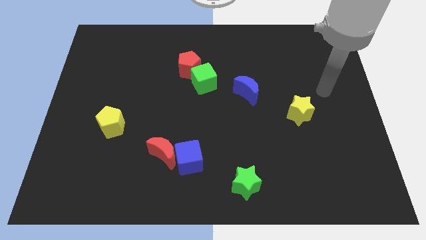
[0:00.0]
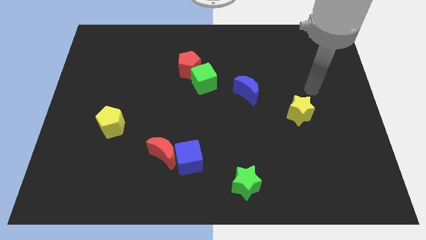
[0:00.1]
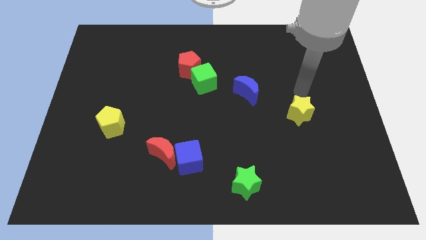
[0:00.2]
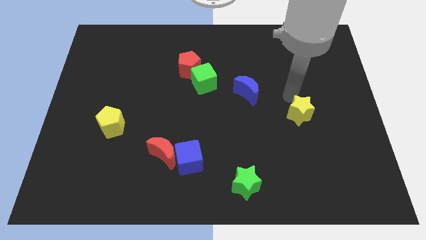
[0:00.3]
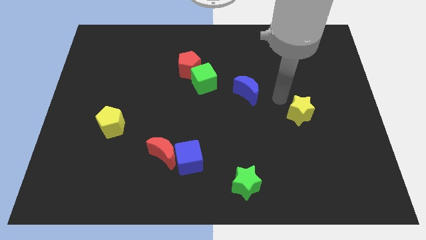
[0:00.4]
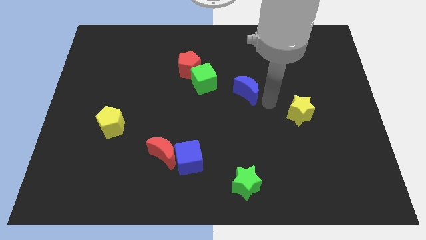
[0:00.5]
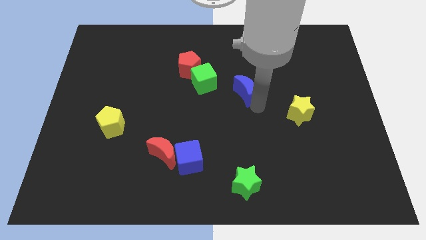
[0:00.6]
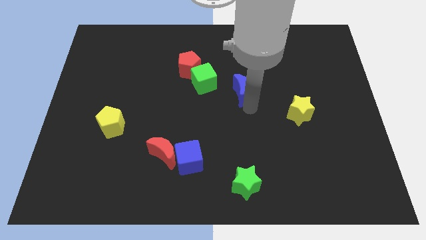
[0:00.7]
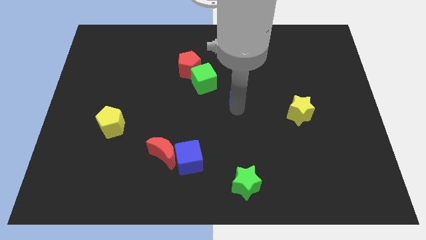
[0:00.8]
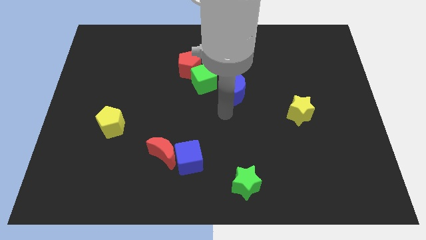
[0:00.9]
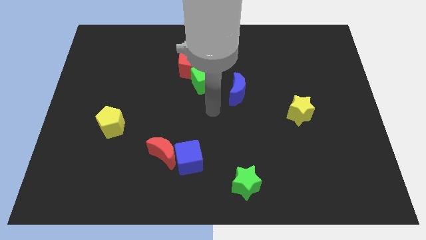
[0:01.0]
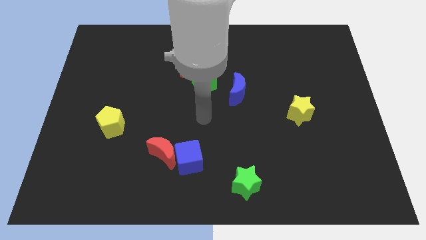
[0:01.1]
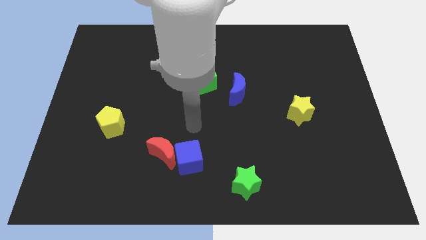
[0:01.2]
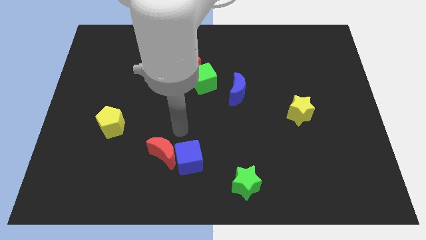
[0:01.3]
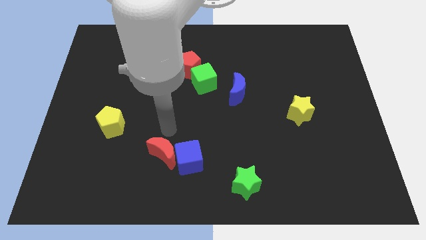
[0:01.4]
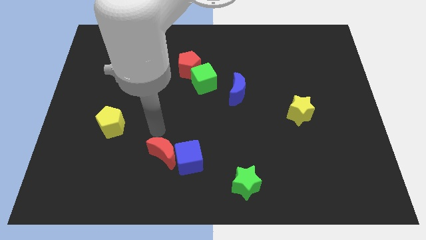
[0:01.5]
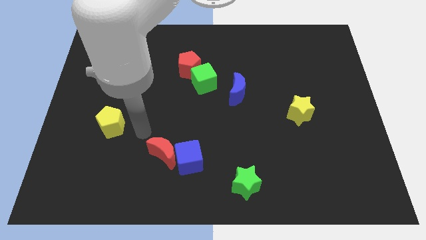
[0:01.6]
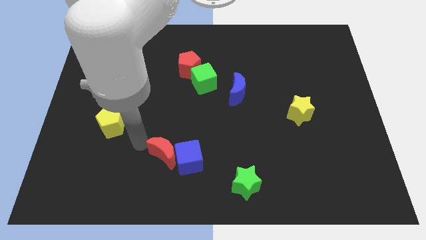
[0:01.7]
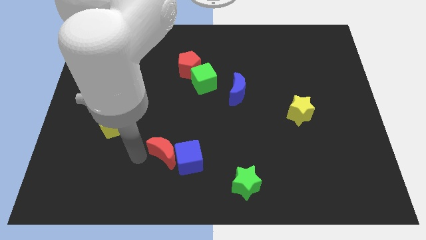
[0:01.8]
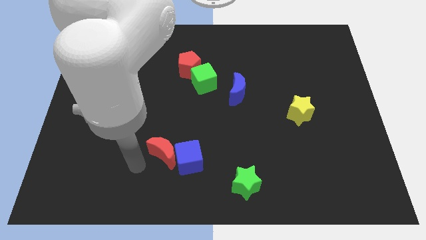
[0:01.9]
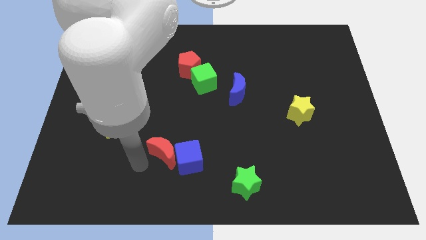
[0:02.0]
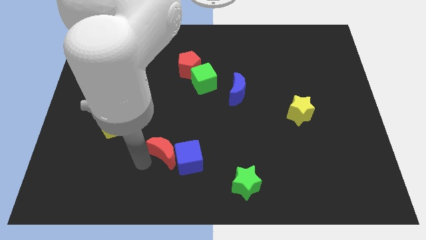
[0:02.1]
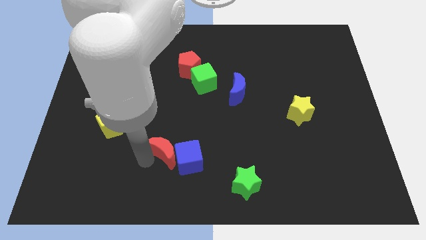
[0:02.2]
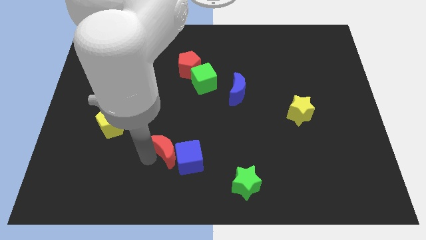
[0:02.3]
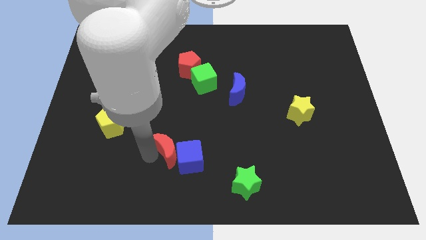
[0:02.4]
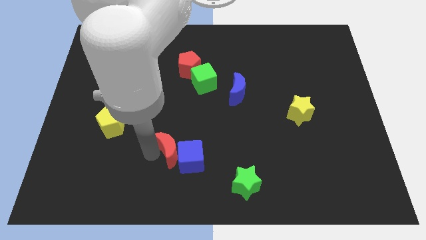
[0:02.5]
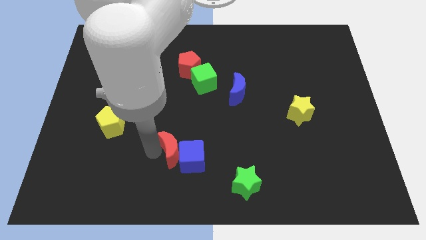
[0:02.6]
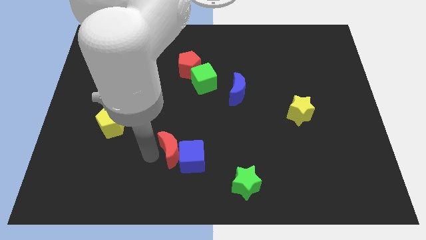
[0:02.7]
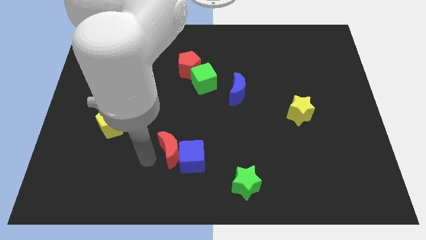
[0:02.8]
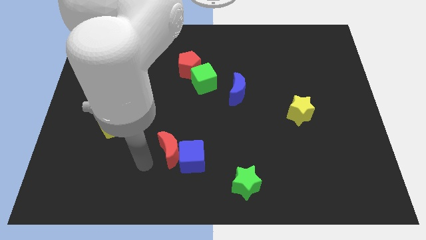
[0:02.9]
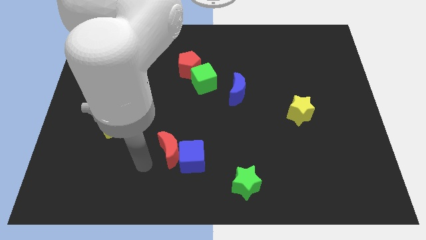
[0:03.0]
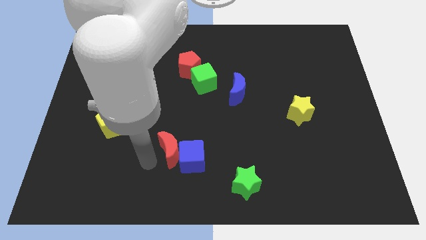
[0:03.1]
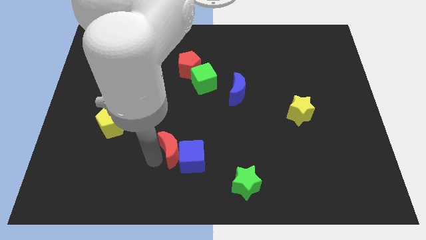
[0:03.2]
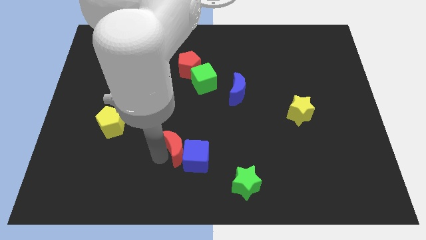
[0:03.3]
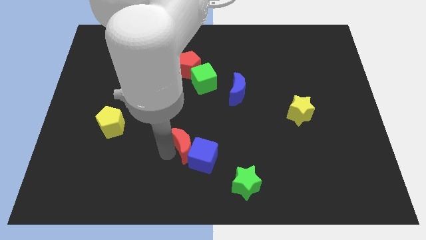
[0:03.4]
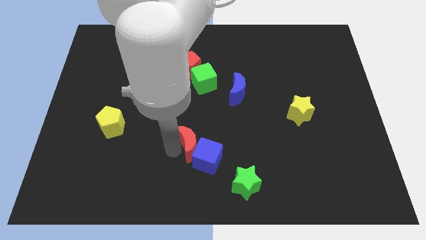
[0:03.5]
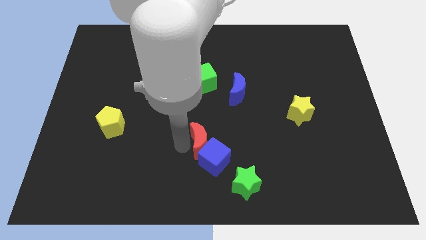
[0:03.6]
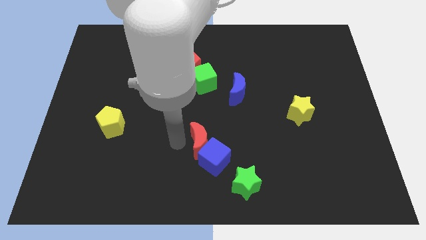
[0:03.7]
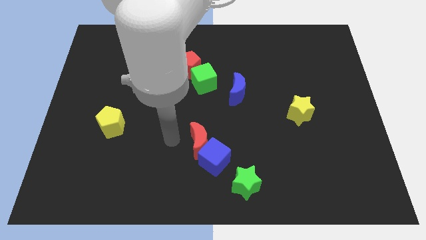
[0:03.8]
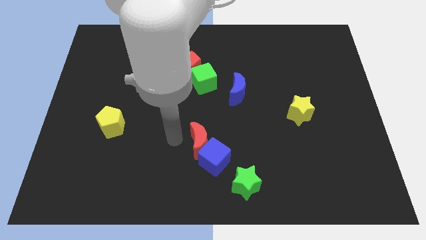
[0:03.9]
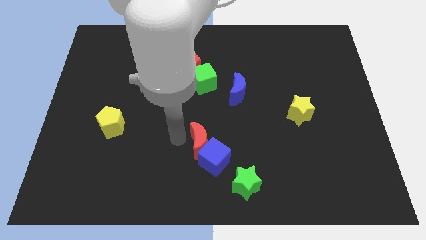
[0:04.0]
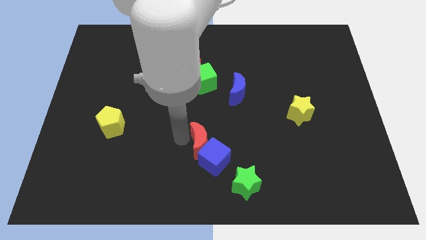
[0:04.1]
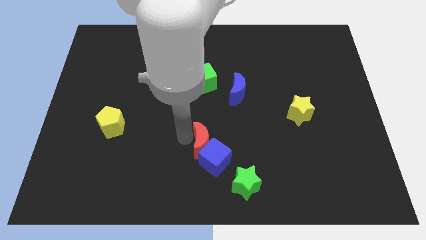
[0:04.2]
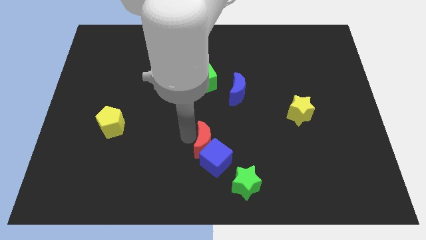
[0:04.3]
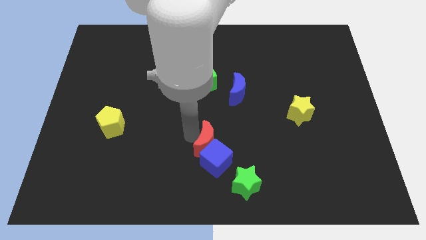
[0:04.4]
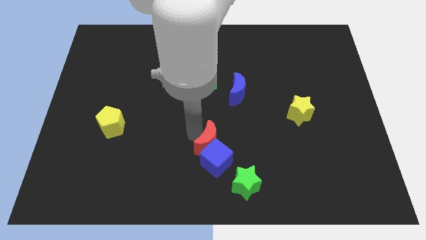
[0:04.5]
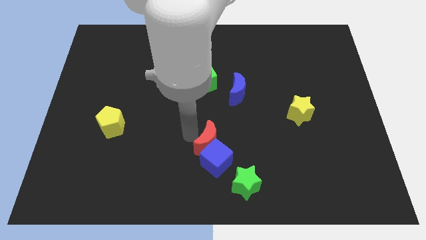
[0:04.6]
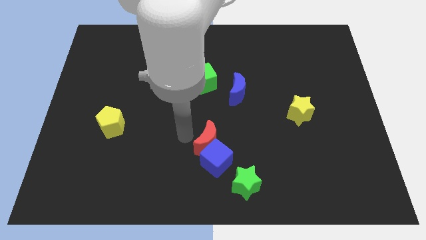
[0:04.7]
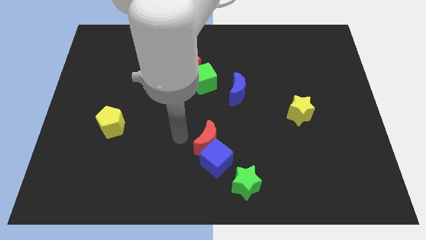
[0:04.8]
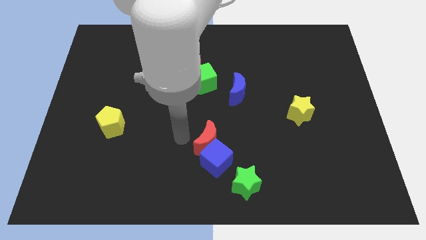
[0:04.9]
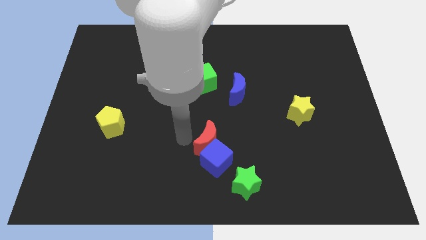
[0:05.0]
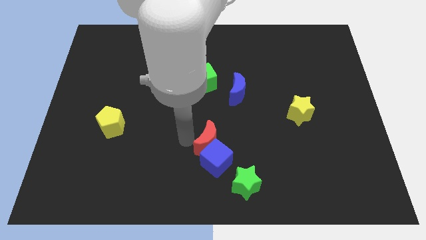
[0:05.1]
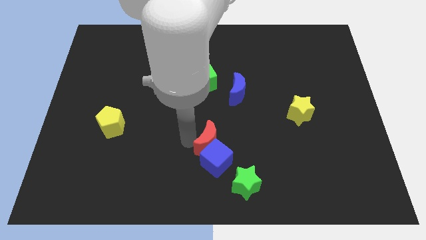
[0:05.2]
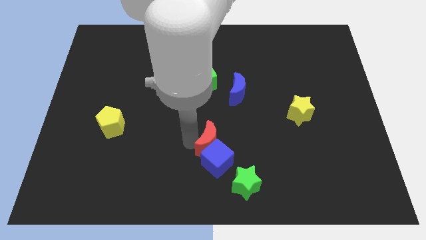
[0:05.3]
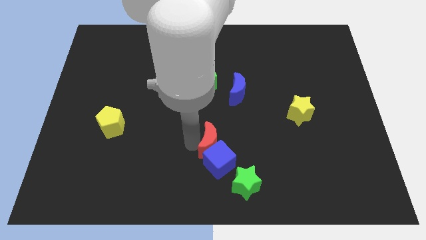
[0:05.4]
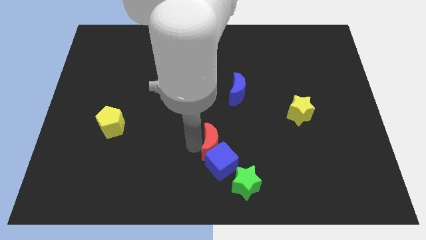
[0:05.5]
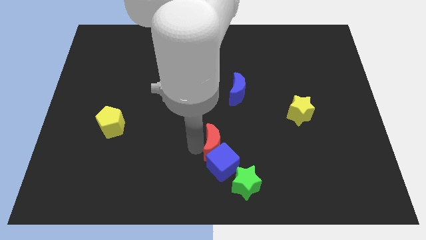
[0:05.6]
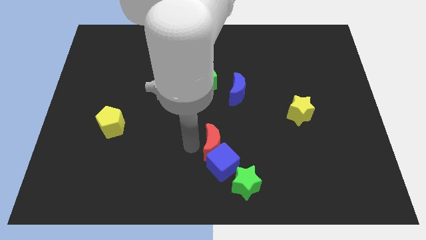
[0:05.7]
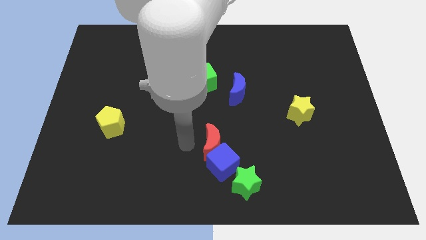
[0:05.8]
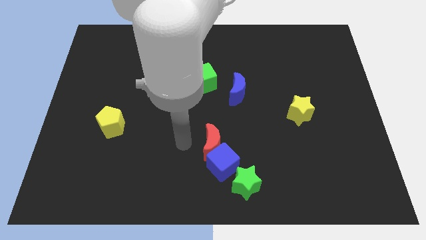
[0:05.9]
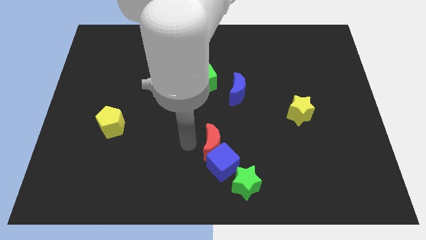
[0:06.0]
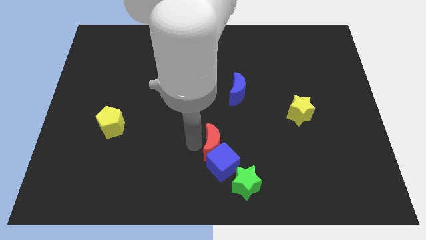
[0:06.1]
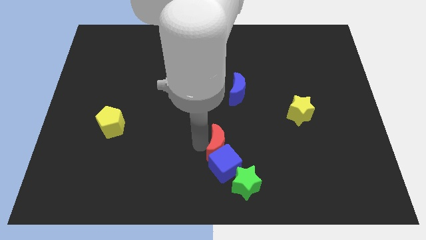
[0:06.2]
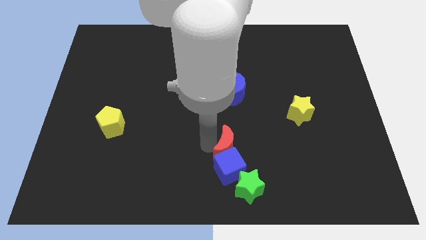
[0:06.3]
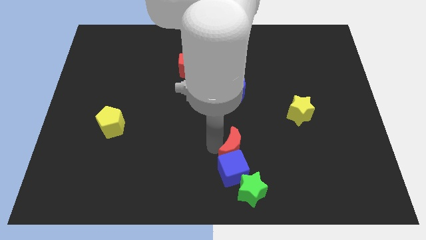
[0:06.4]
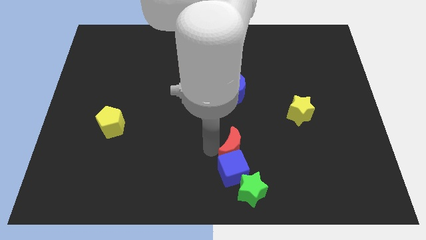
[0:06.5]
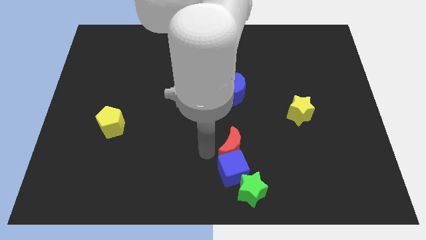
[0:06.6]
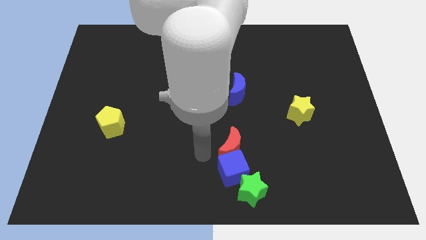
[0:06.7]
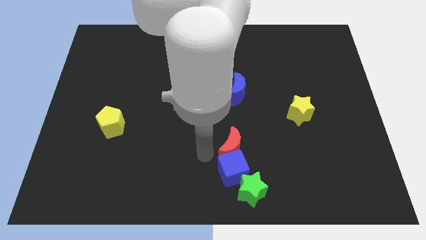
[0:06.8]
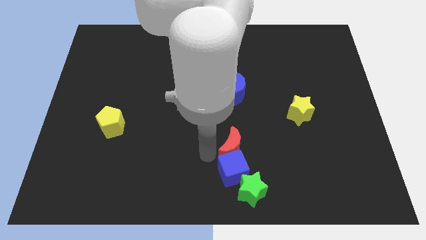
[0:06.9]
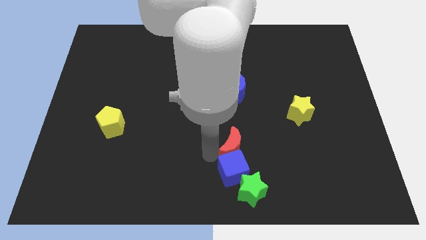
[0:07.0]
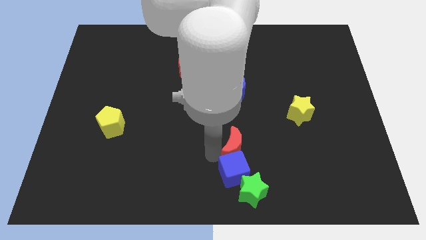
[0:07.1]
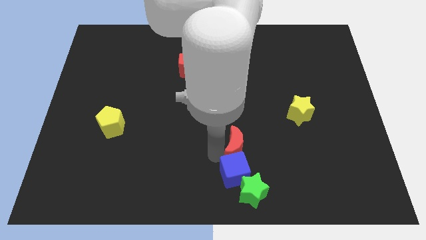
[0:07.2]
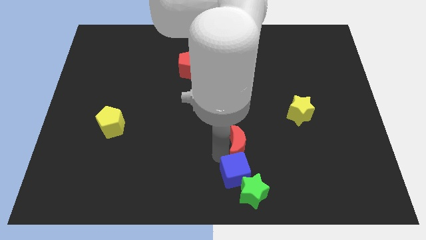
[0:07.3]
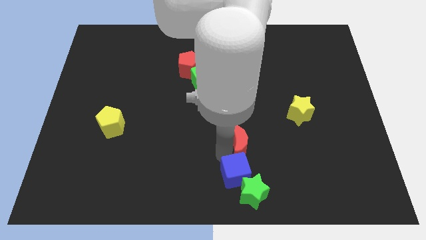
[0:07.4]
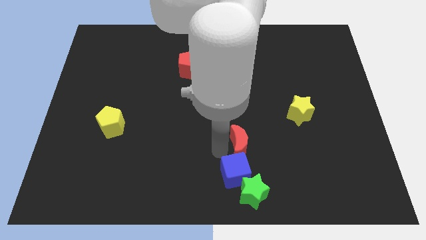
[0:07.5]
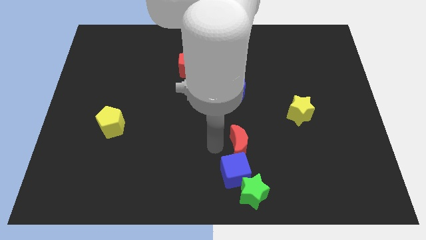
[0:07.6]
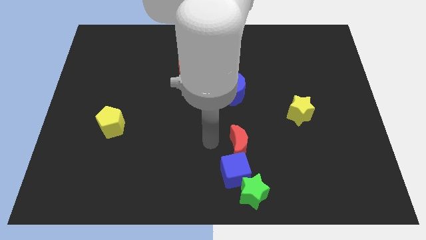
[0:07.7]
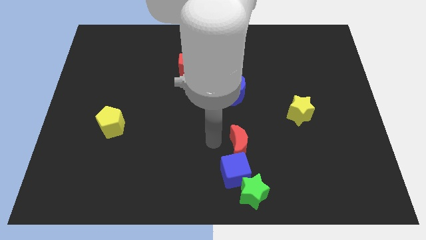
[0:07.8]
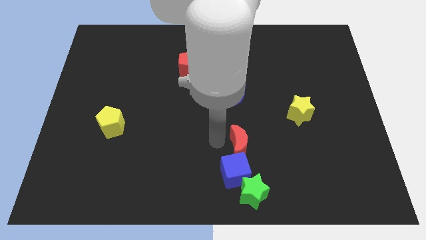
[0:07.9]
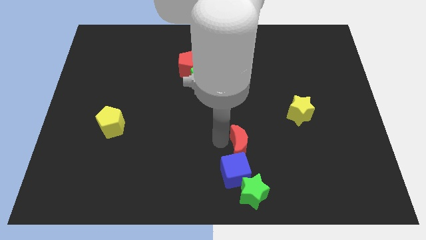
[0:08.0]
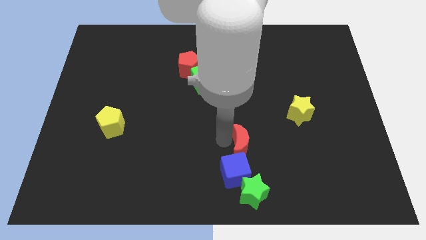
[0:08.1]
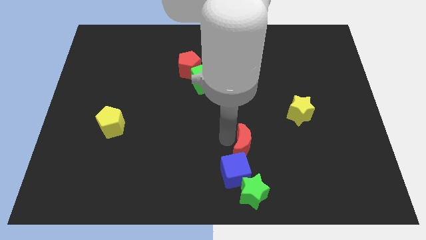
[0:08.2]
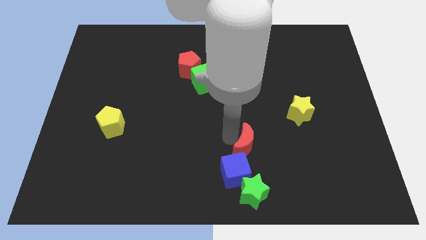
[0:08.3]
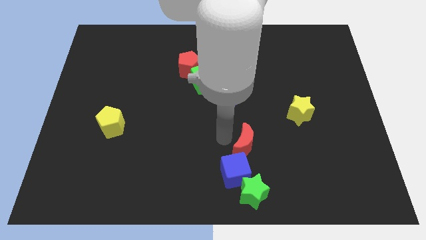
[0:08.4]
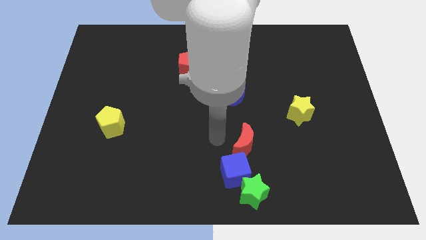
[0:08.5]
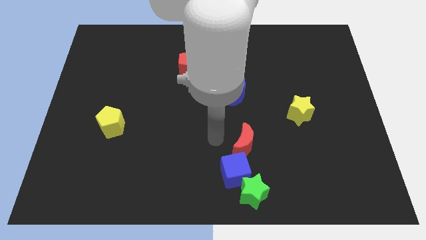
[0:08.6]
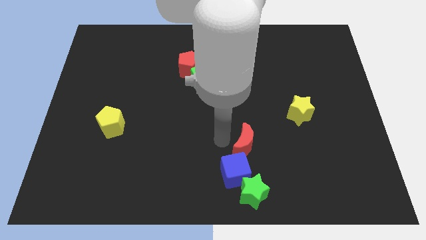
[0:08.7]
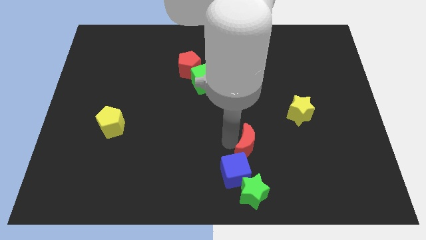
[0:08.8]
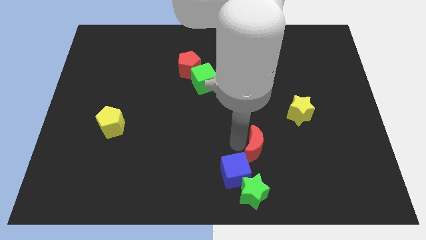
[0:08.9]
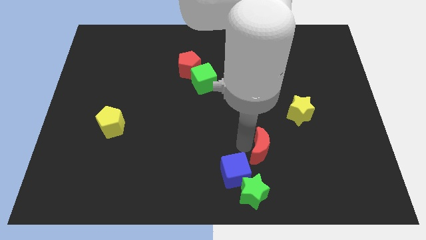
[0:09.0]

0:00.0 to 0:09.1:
slide the red moon to the right
